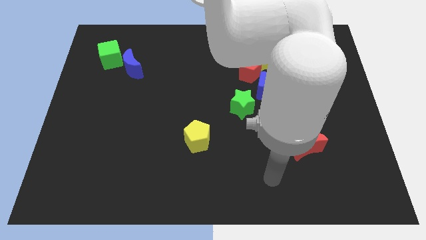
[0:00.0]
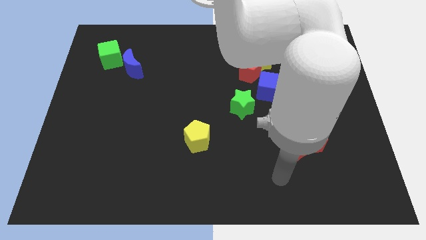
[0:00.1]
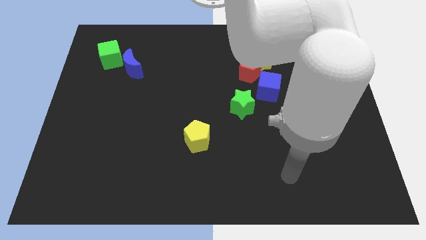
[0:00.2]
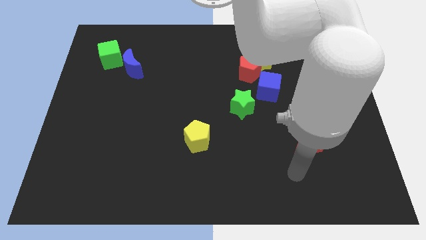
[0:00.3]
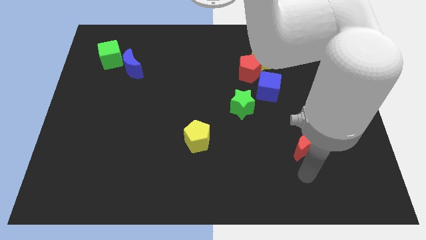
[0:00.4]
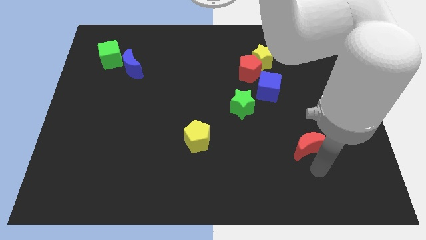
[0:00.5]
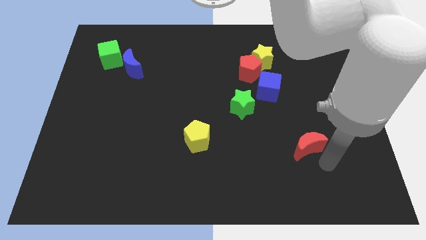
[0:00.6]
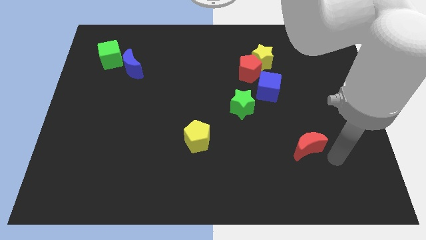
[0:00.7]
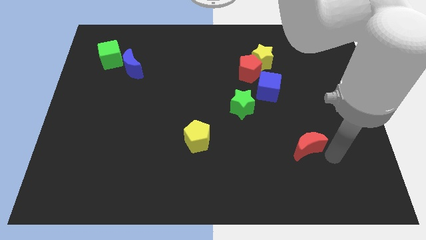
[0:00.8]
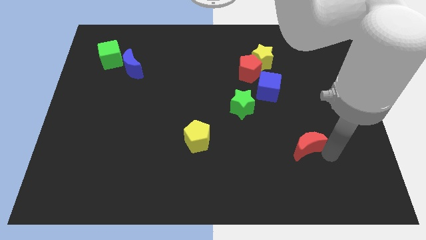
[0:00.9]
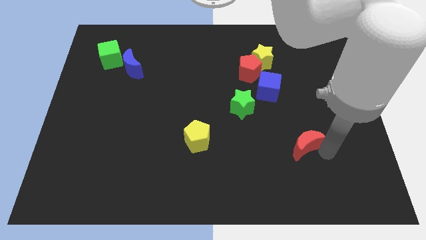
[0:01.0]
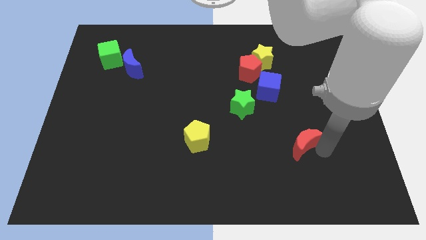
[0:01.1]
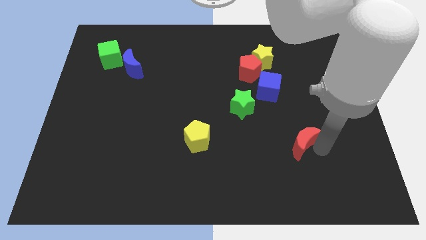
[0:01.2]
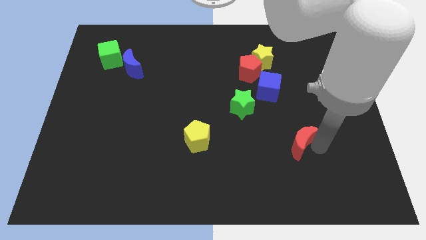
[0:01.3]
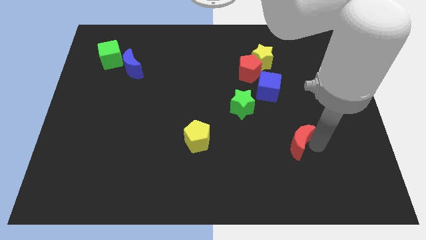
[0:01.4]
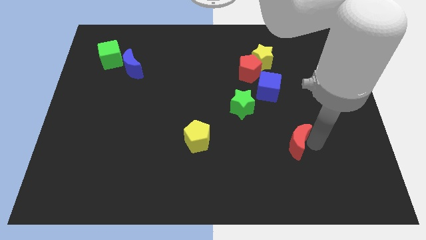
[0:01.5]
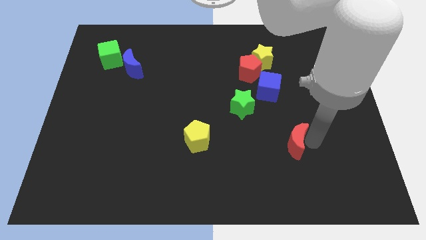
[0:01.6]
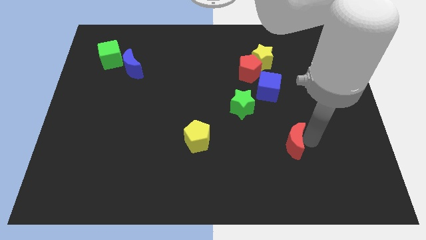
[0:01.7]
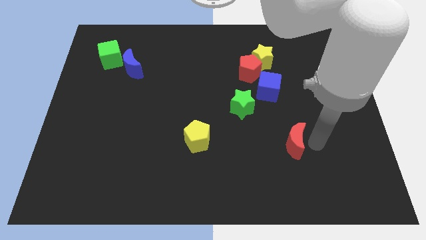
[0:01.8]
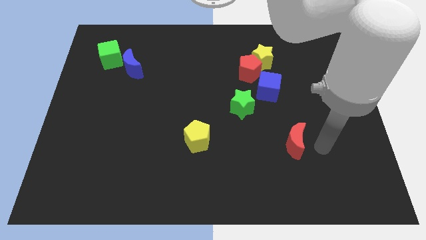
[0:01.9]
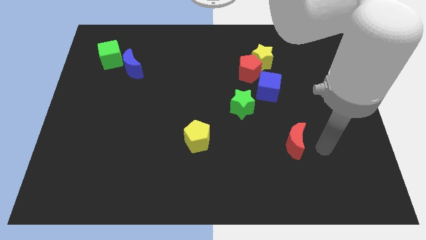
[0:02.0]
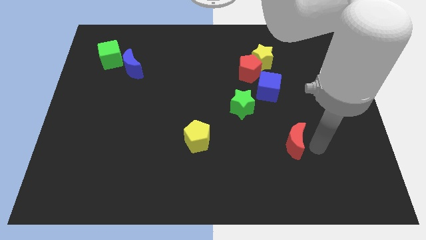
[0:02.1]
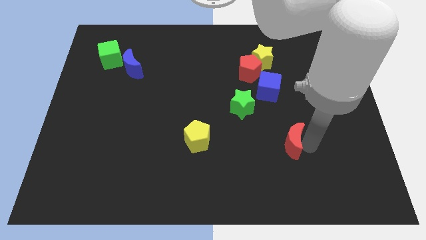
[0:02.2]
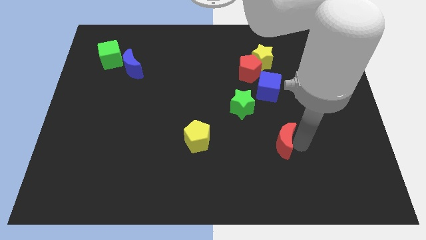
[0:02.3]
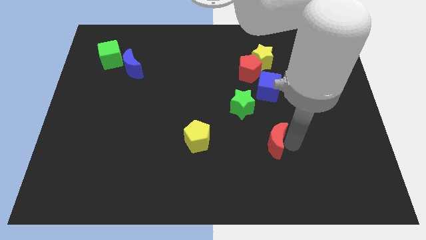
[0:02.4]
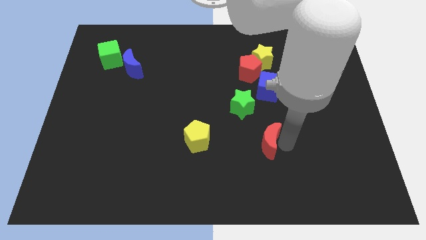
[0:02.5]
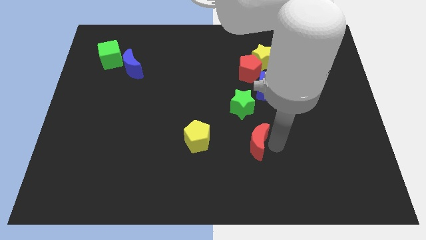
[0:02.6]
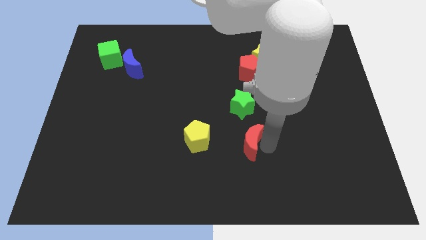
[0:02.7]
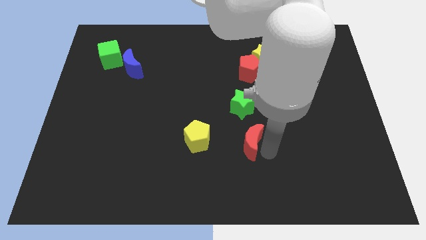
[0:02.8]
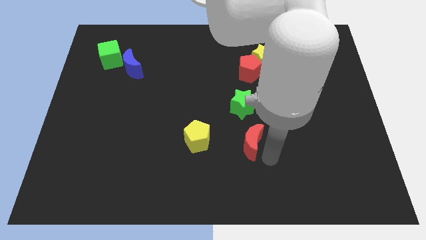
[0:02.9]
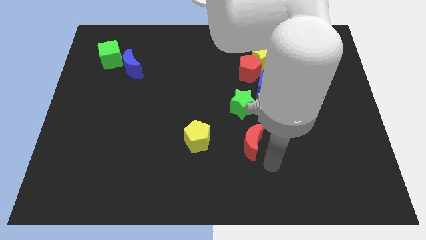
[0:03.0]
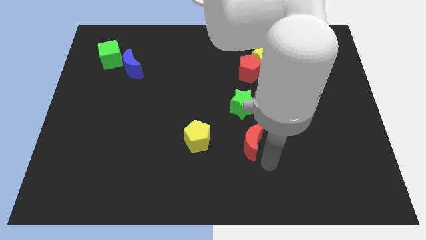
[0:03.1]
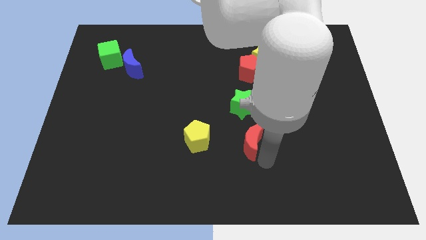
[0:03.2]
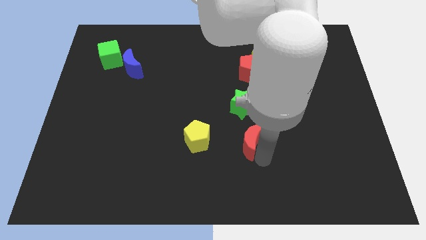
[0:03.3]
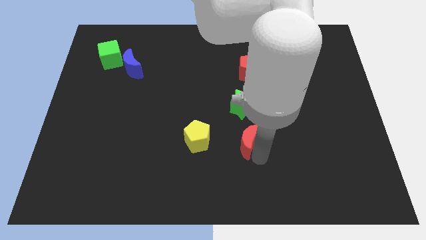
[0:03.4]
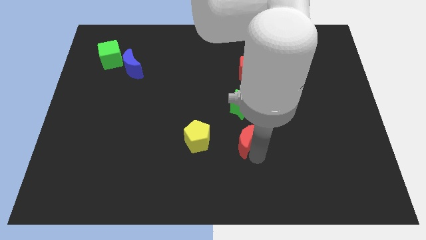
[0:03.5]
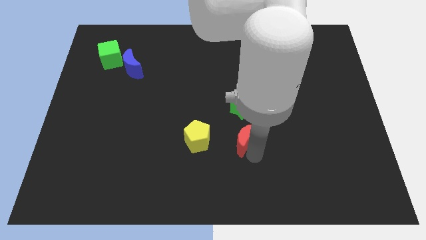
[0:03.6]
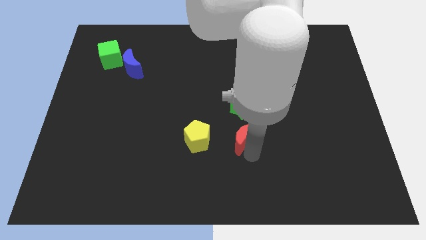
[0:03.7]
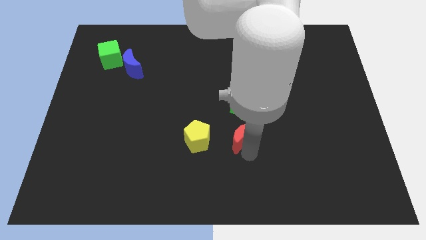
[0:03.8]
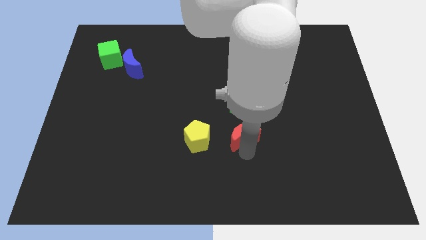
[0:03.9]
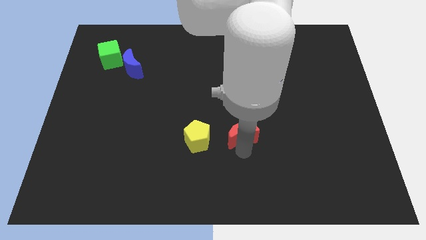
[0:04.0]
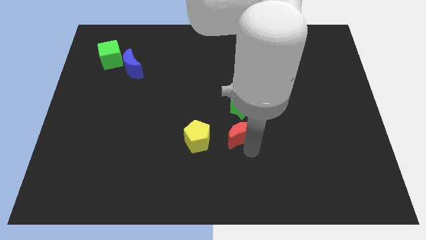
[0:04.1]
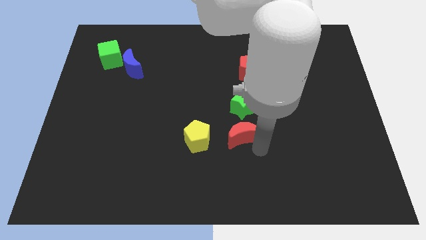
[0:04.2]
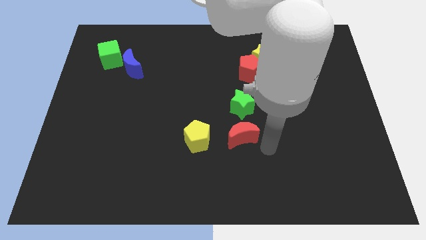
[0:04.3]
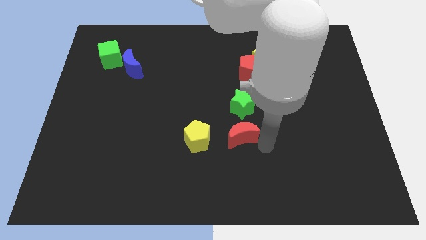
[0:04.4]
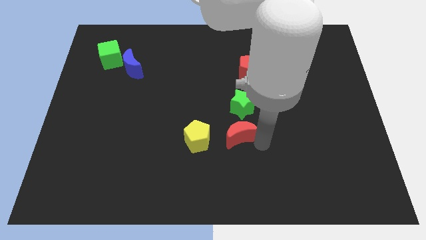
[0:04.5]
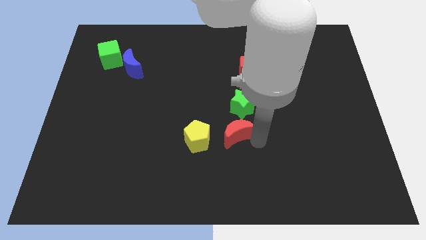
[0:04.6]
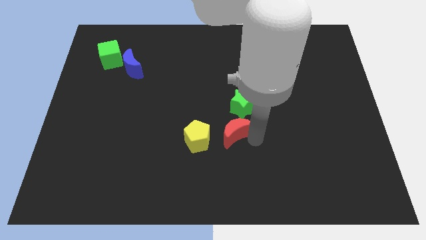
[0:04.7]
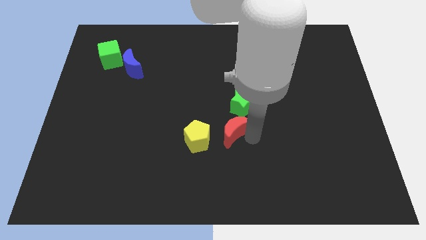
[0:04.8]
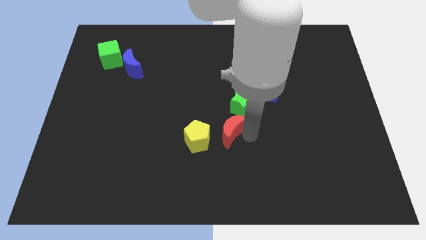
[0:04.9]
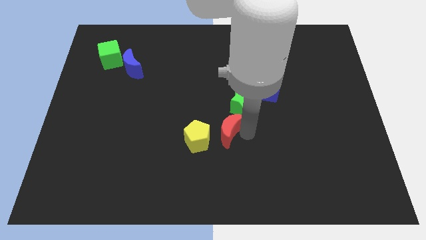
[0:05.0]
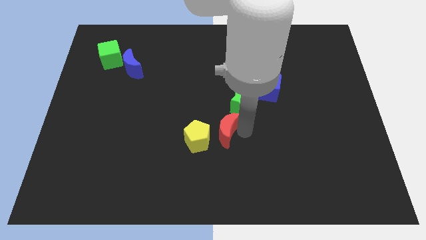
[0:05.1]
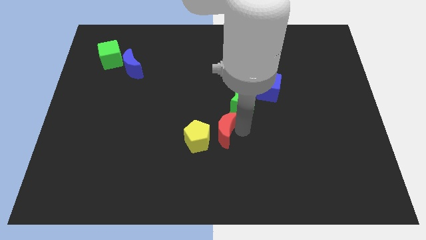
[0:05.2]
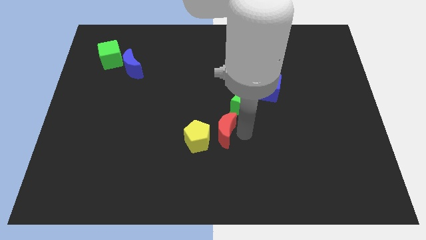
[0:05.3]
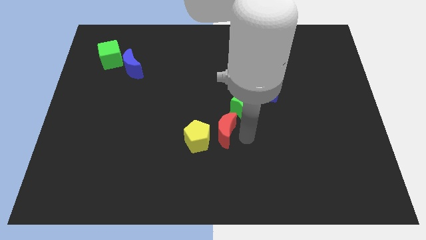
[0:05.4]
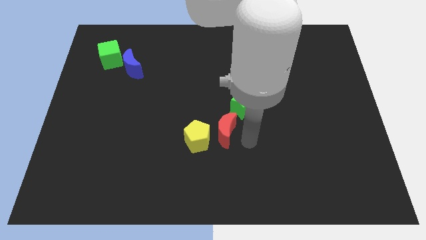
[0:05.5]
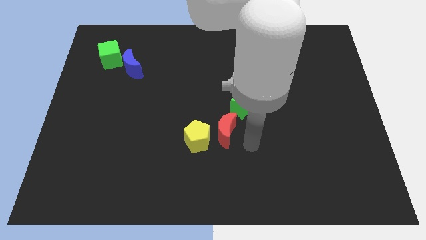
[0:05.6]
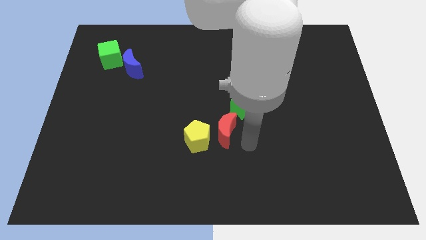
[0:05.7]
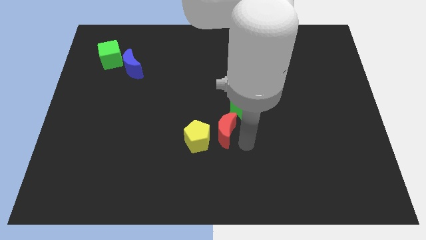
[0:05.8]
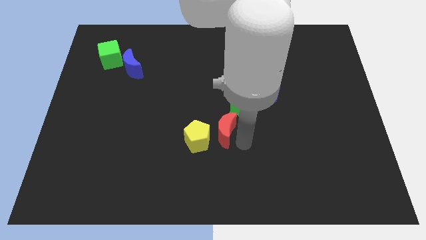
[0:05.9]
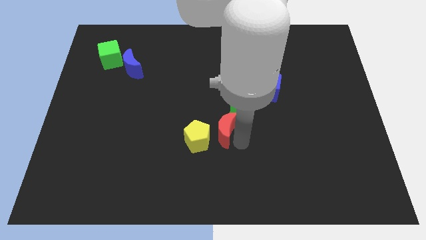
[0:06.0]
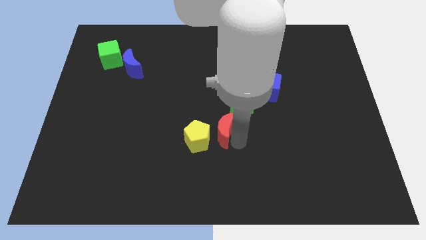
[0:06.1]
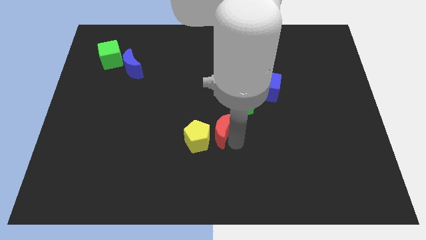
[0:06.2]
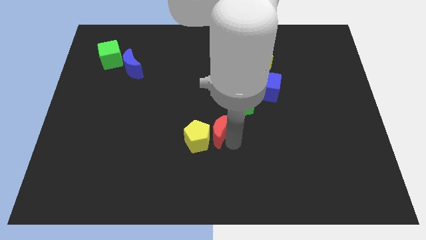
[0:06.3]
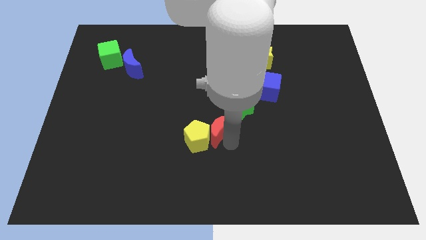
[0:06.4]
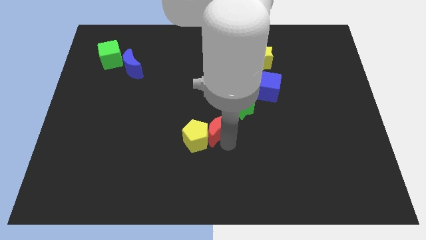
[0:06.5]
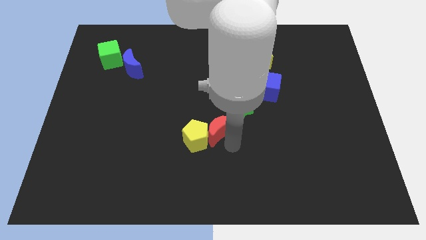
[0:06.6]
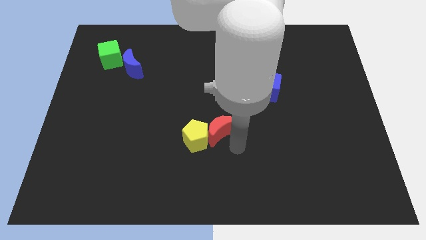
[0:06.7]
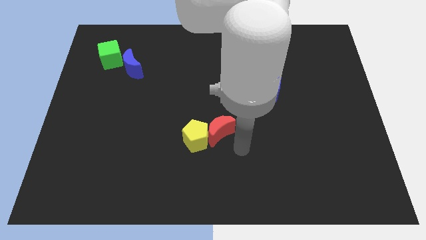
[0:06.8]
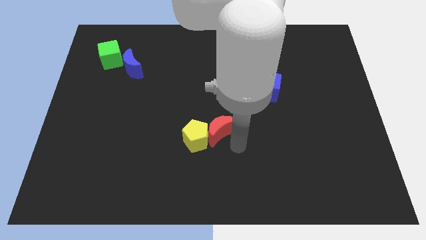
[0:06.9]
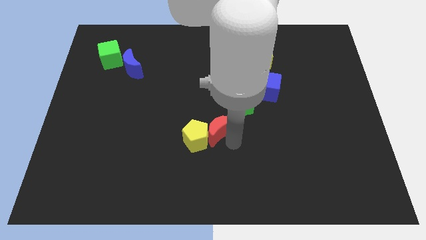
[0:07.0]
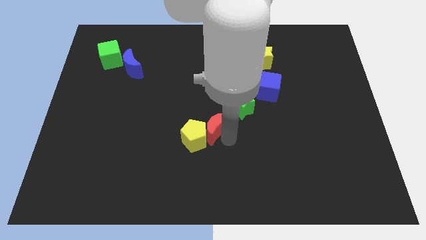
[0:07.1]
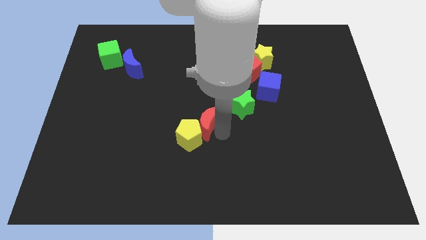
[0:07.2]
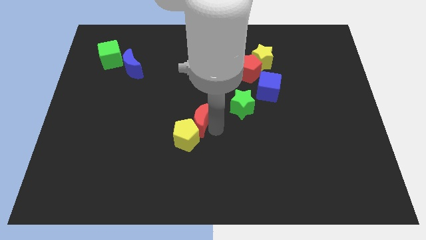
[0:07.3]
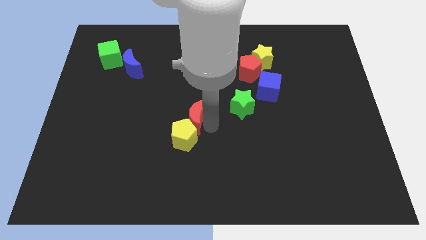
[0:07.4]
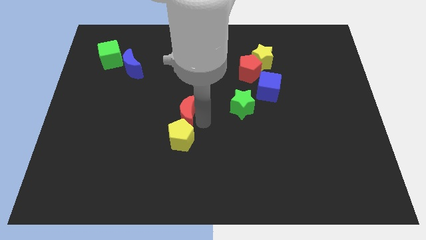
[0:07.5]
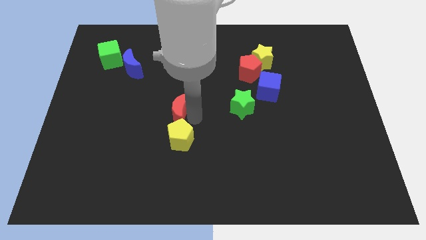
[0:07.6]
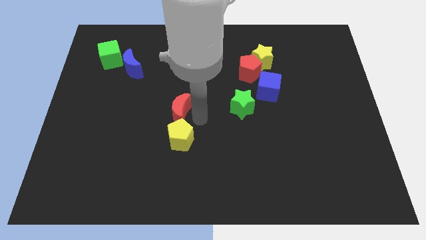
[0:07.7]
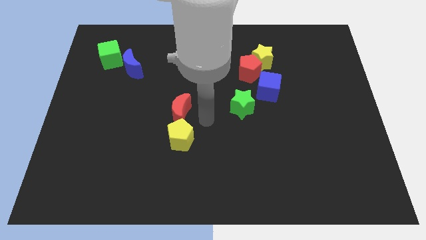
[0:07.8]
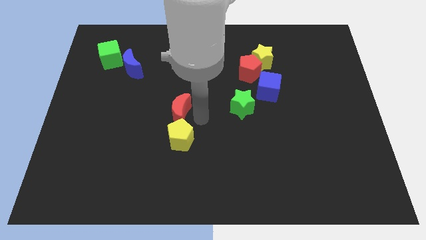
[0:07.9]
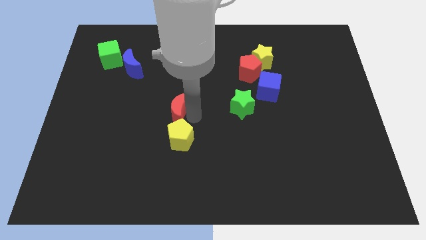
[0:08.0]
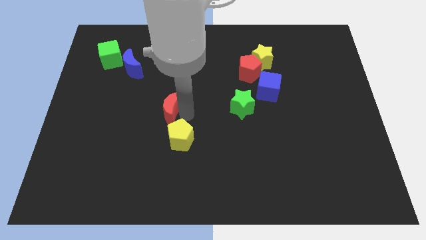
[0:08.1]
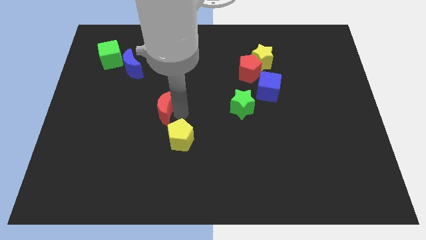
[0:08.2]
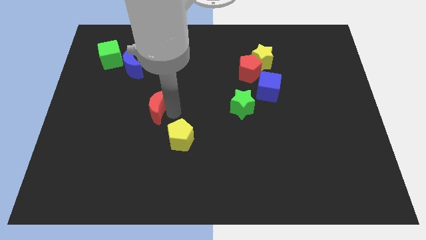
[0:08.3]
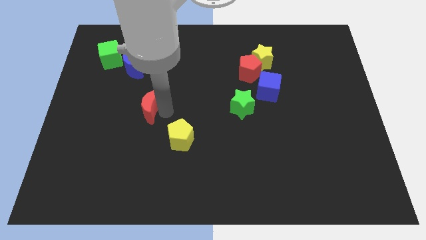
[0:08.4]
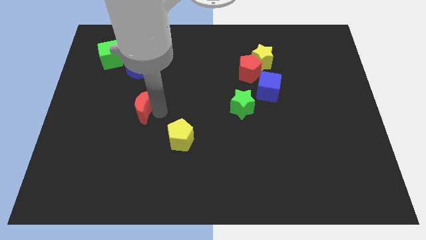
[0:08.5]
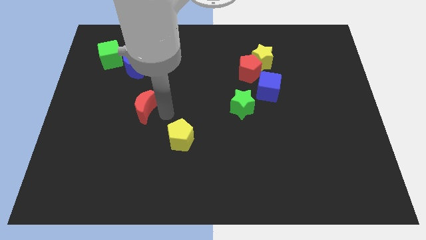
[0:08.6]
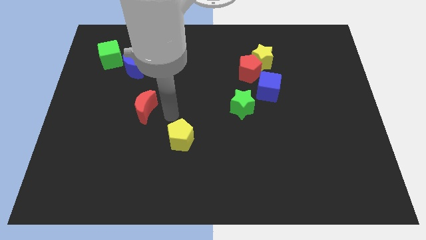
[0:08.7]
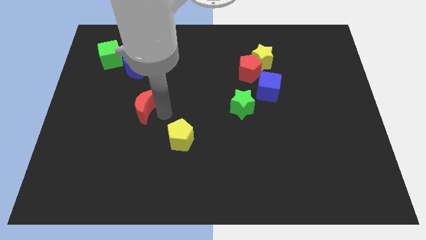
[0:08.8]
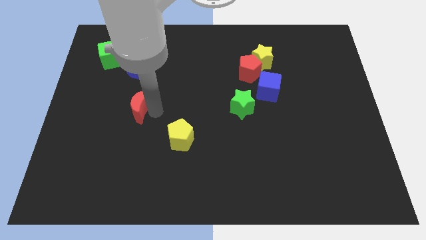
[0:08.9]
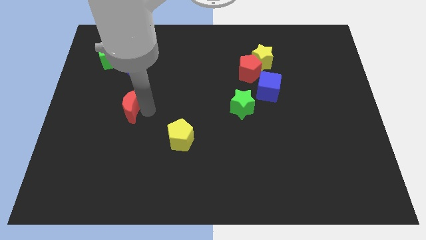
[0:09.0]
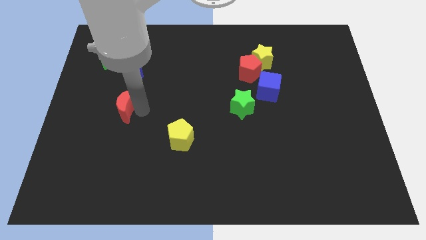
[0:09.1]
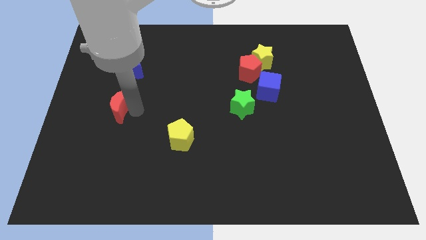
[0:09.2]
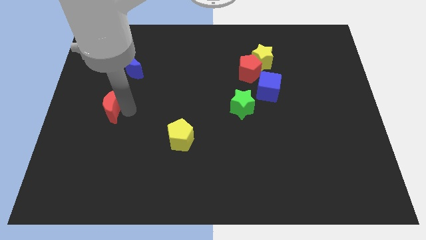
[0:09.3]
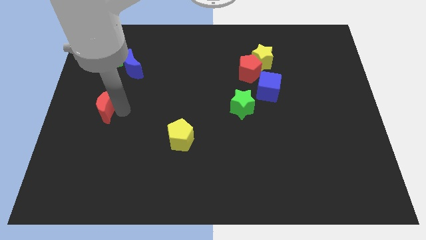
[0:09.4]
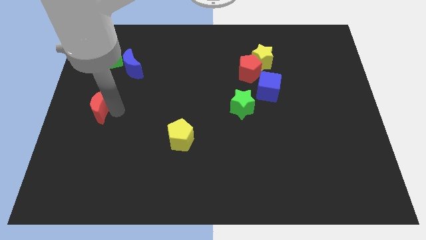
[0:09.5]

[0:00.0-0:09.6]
push the red moon to the left side
